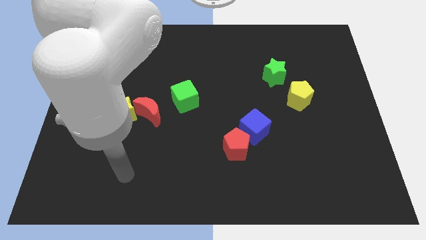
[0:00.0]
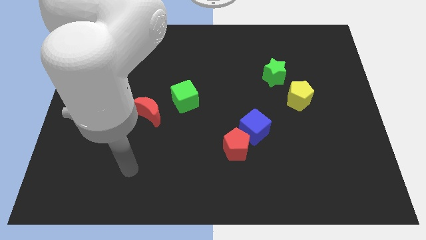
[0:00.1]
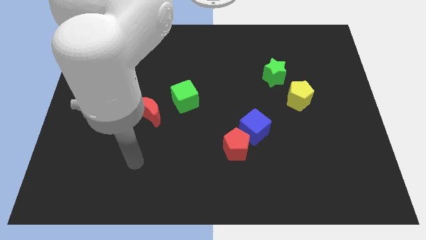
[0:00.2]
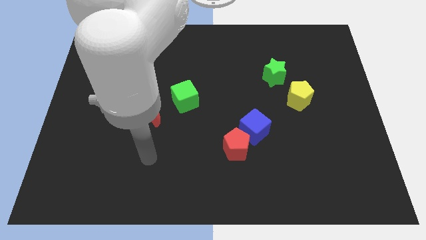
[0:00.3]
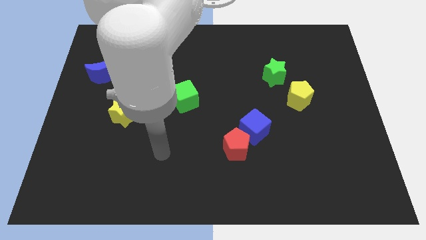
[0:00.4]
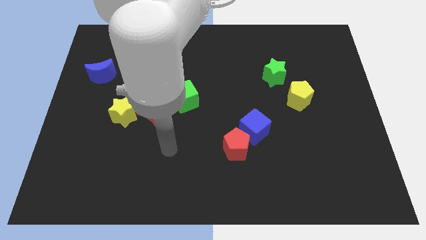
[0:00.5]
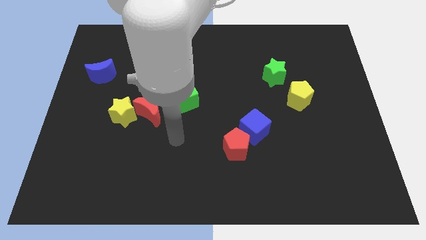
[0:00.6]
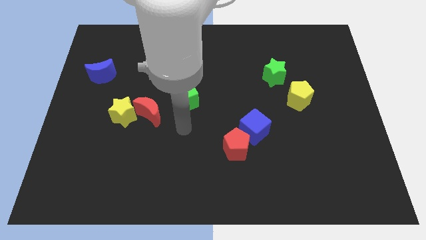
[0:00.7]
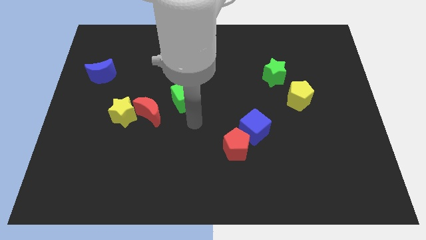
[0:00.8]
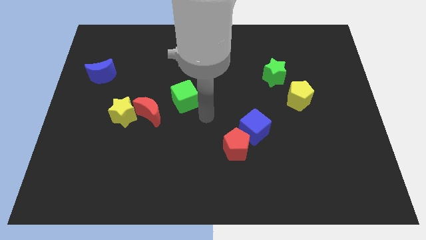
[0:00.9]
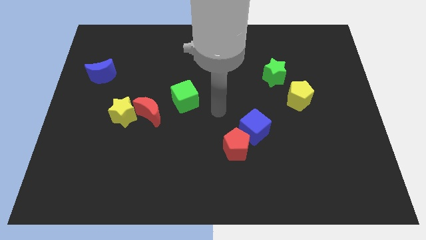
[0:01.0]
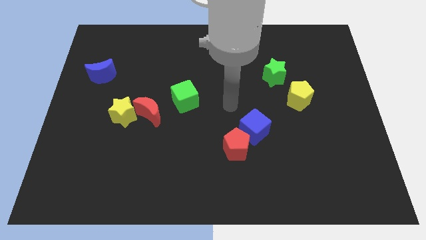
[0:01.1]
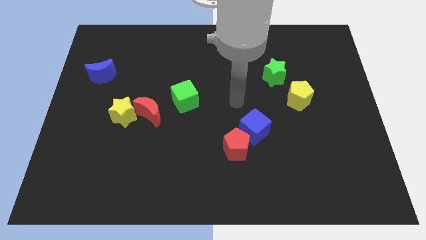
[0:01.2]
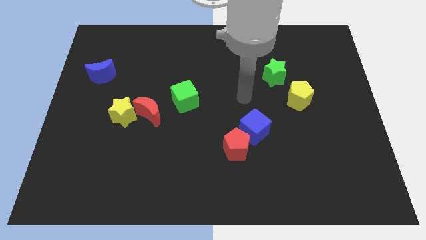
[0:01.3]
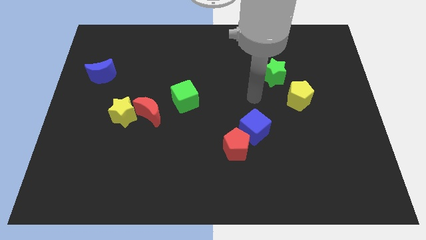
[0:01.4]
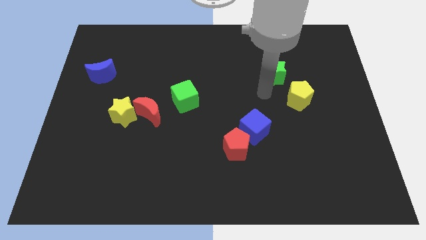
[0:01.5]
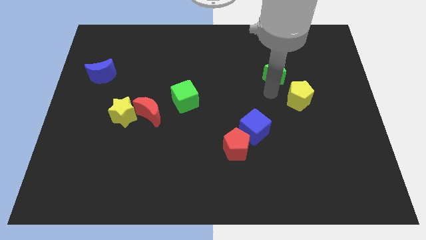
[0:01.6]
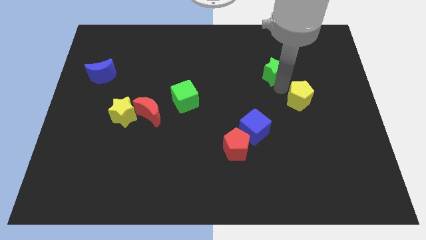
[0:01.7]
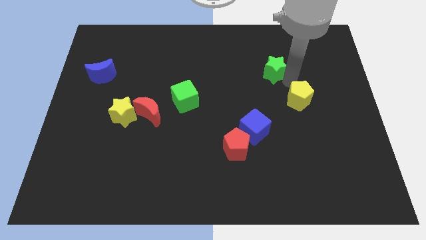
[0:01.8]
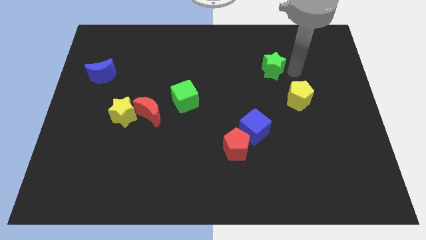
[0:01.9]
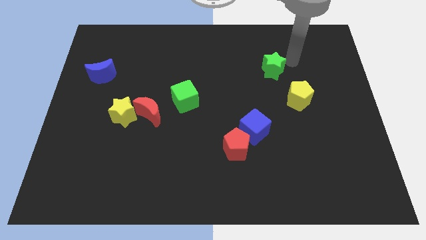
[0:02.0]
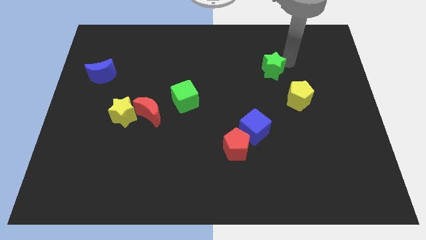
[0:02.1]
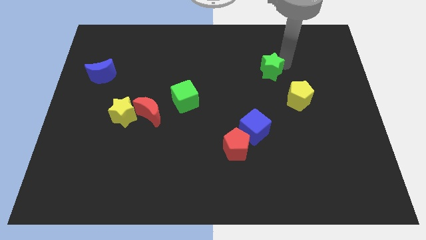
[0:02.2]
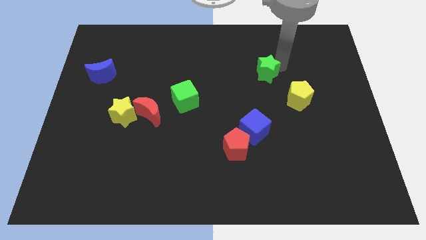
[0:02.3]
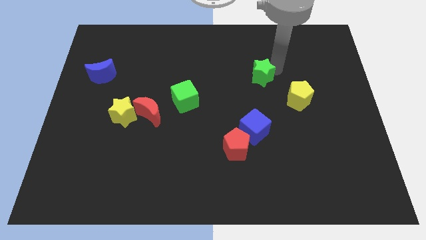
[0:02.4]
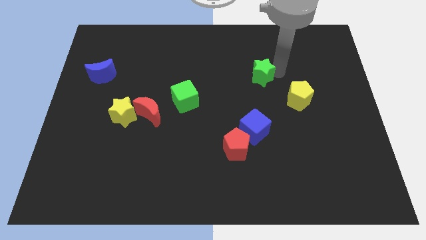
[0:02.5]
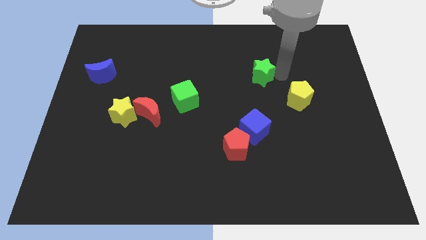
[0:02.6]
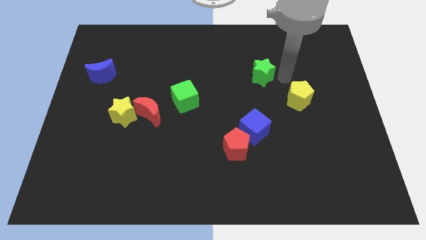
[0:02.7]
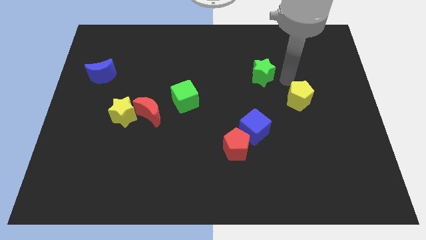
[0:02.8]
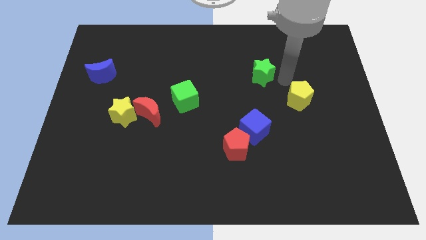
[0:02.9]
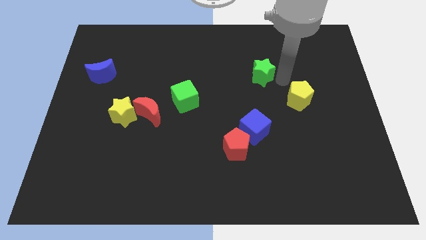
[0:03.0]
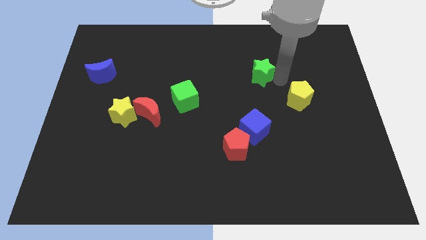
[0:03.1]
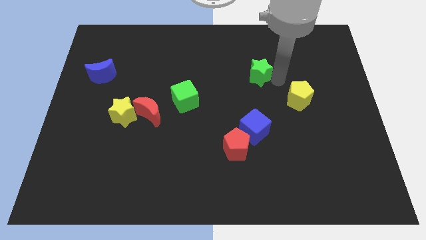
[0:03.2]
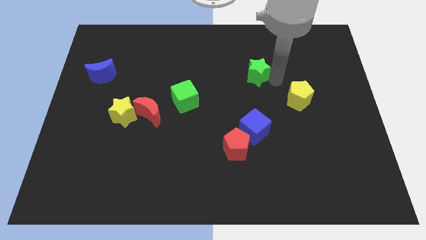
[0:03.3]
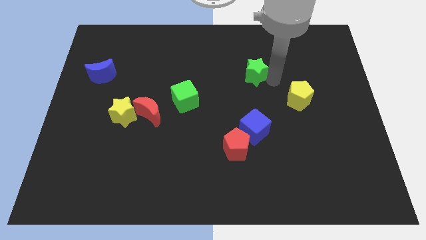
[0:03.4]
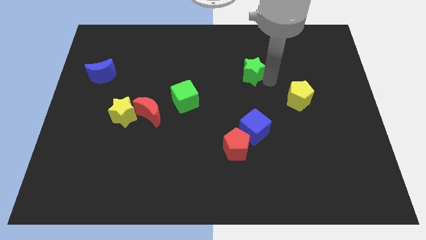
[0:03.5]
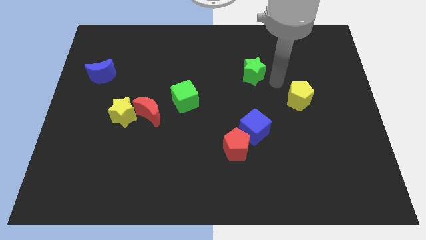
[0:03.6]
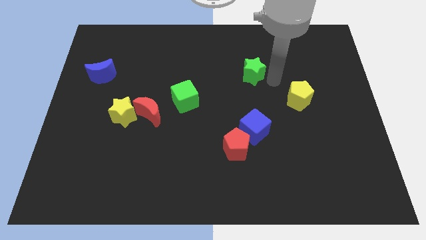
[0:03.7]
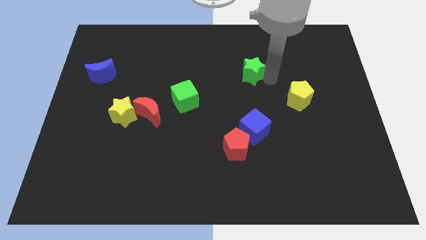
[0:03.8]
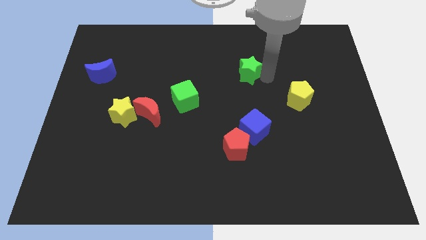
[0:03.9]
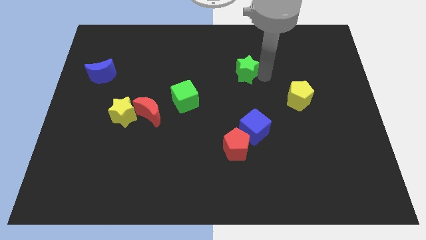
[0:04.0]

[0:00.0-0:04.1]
slide the green star to the left a little bit

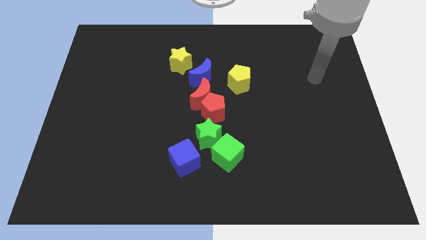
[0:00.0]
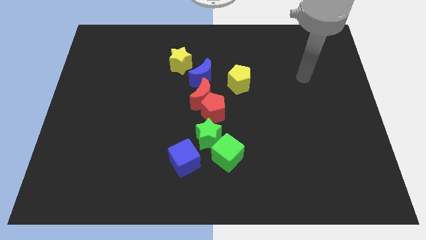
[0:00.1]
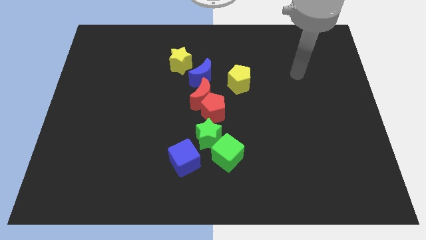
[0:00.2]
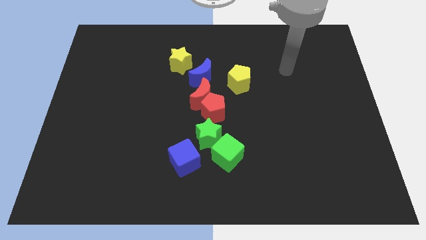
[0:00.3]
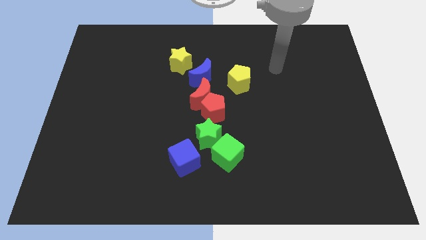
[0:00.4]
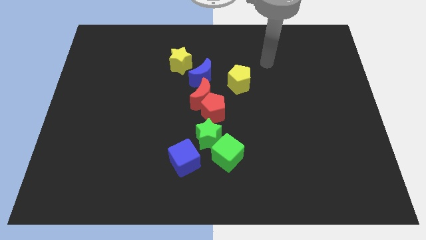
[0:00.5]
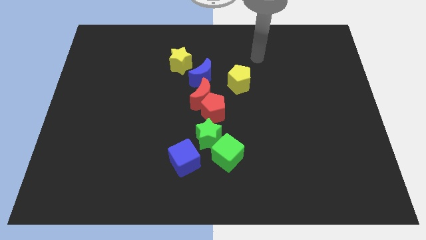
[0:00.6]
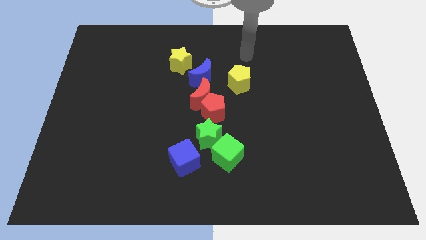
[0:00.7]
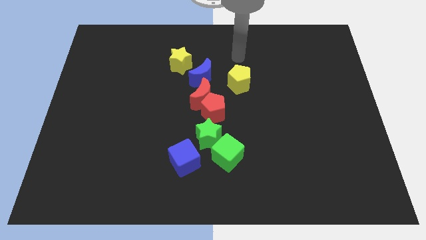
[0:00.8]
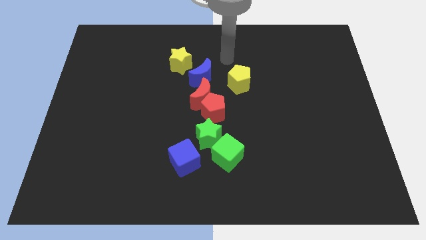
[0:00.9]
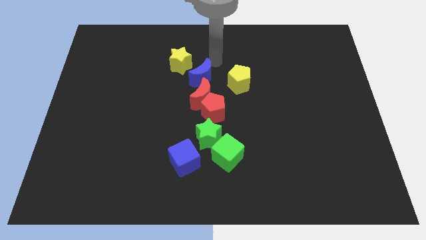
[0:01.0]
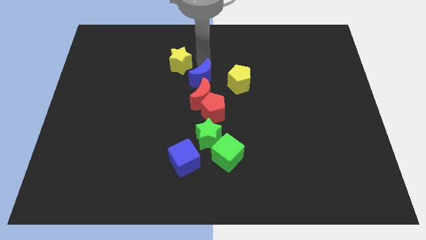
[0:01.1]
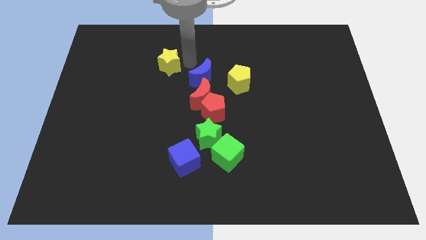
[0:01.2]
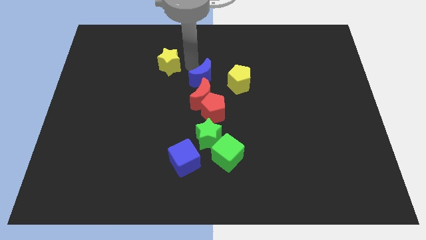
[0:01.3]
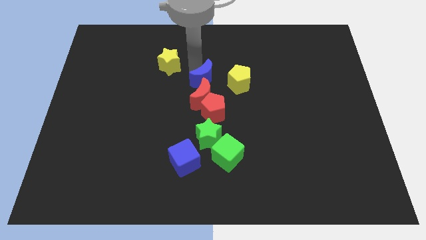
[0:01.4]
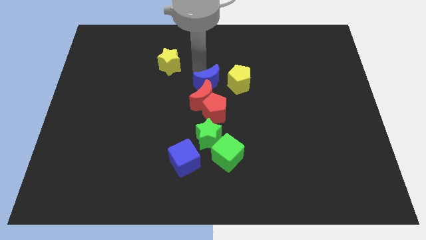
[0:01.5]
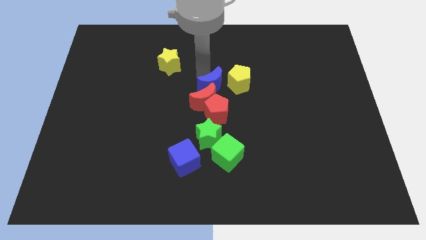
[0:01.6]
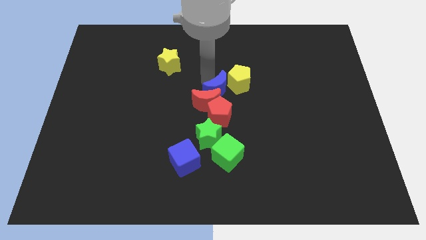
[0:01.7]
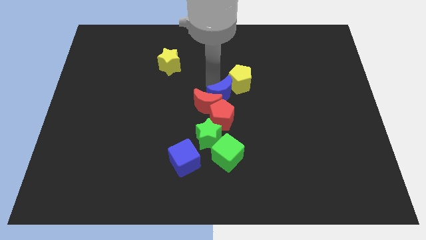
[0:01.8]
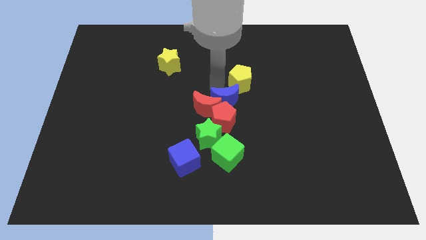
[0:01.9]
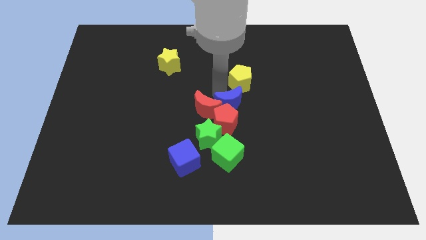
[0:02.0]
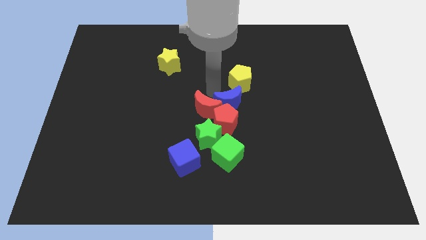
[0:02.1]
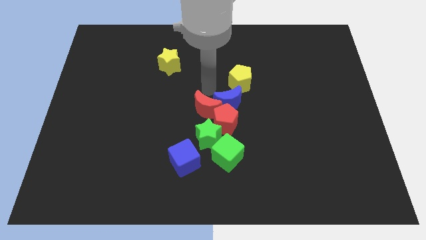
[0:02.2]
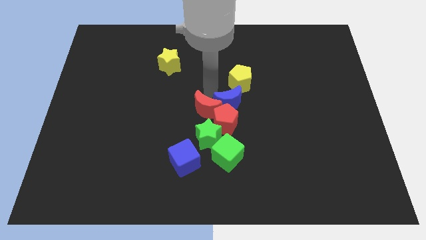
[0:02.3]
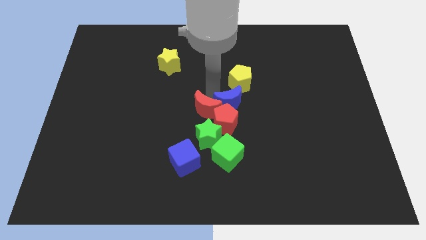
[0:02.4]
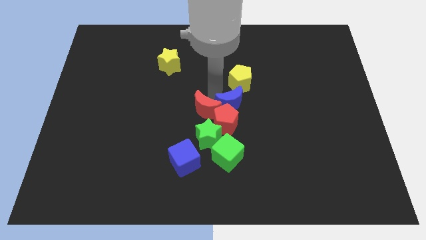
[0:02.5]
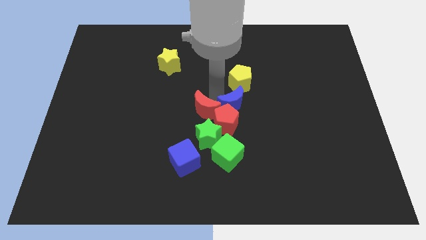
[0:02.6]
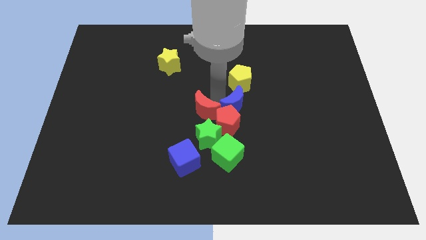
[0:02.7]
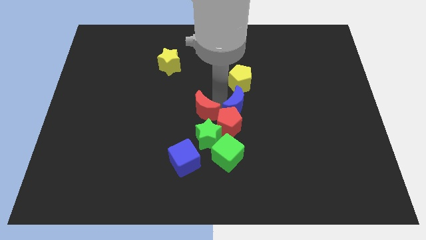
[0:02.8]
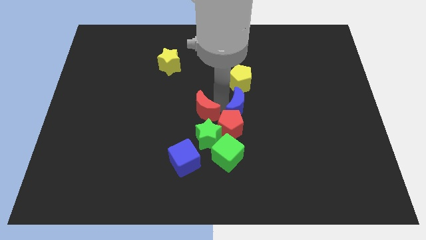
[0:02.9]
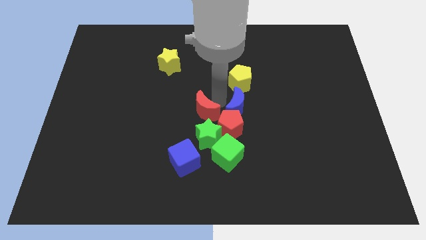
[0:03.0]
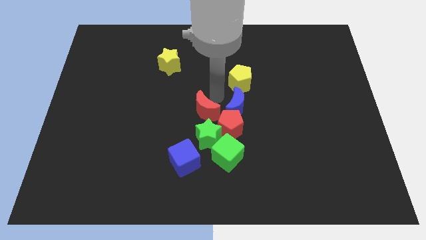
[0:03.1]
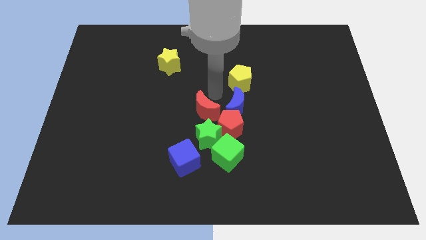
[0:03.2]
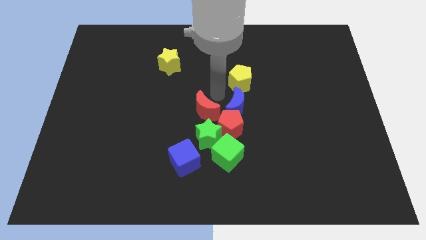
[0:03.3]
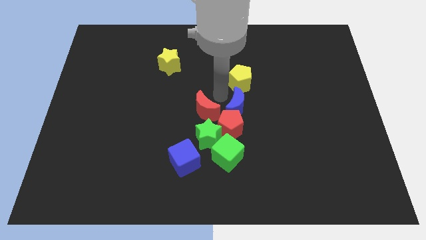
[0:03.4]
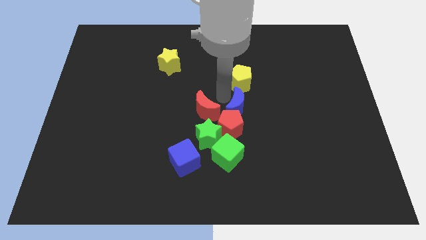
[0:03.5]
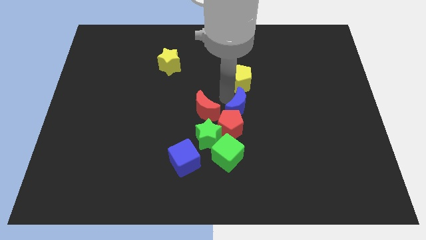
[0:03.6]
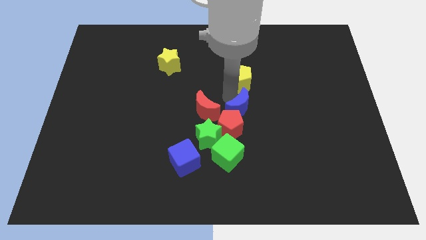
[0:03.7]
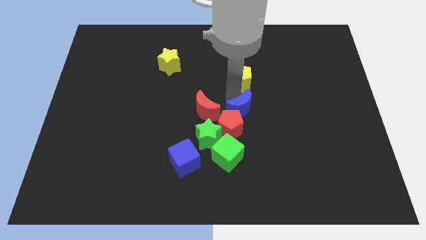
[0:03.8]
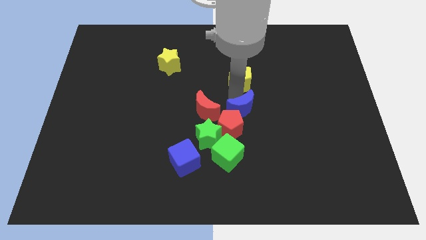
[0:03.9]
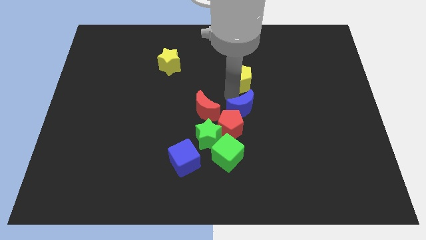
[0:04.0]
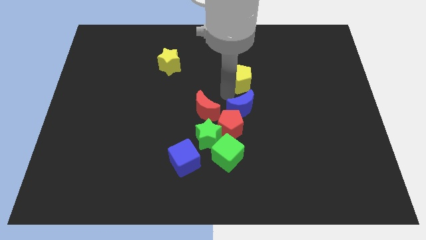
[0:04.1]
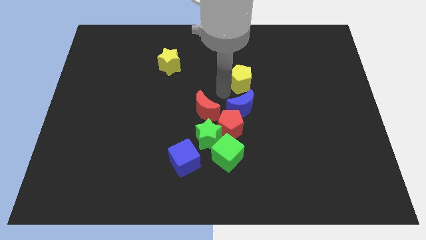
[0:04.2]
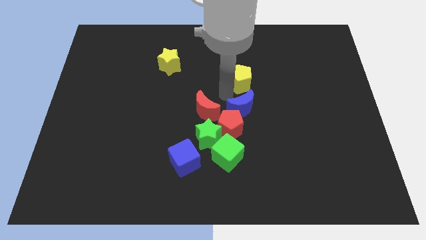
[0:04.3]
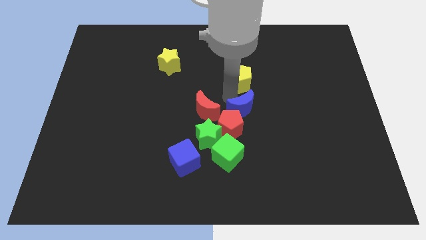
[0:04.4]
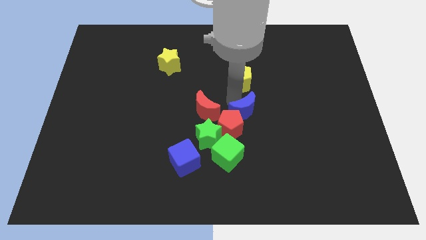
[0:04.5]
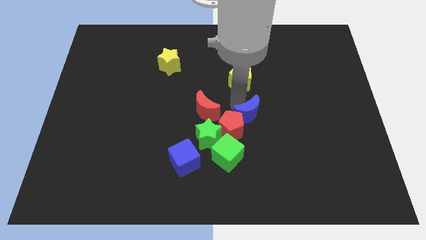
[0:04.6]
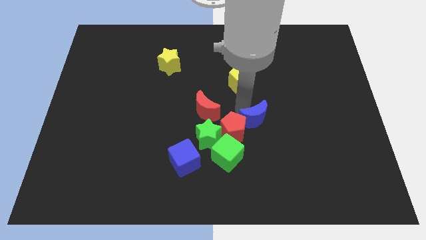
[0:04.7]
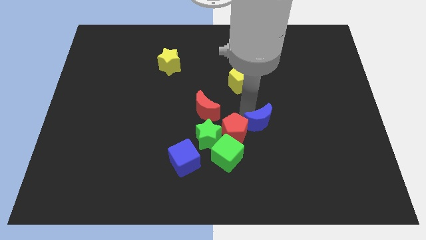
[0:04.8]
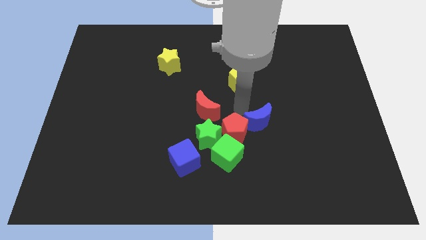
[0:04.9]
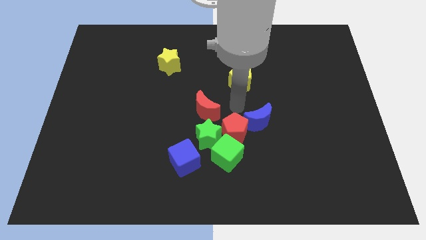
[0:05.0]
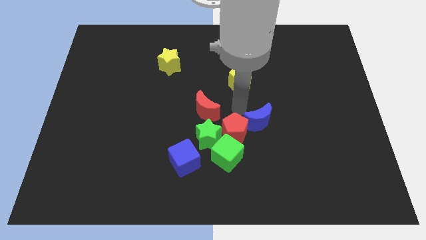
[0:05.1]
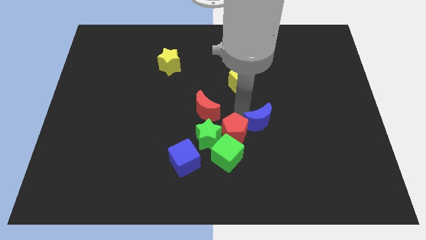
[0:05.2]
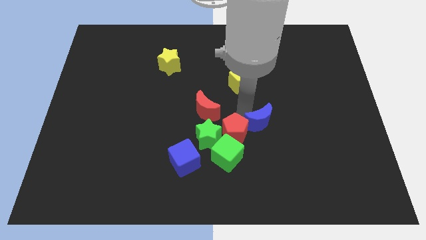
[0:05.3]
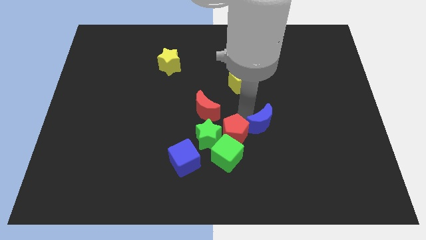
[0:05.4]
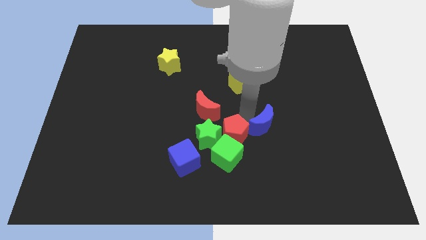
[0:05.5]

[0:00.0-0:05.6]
move the blue moon diagonally downwards and to the right
